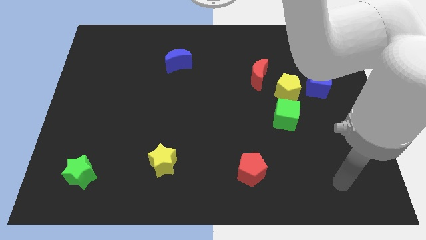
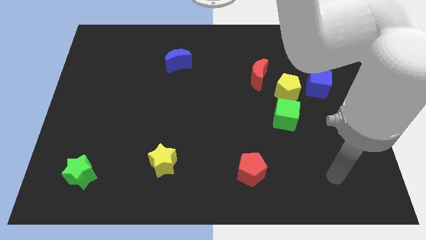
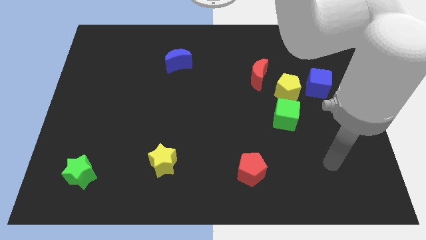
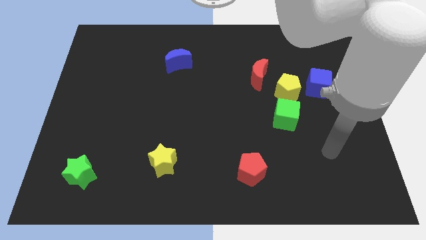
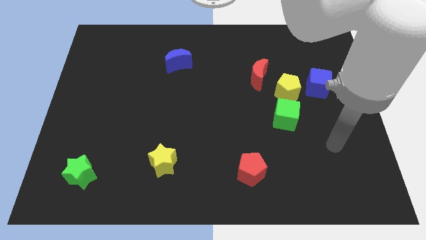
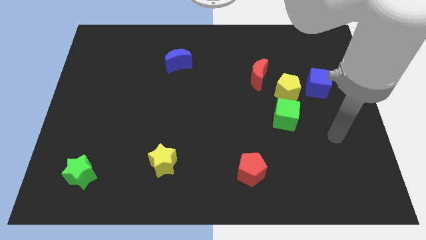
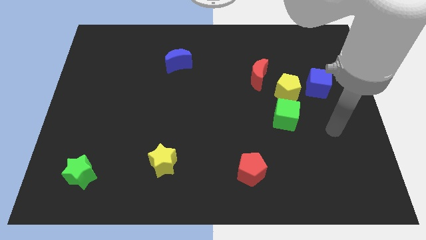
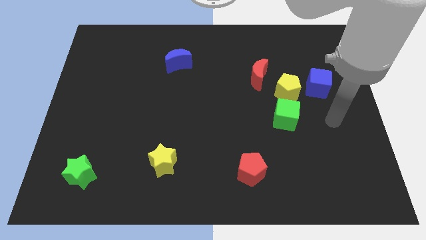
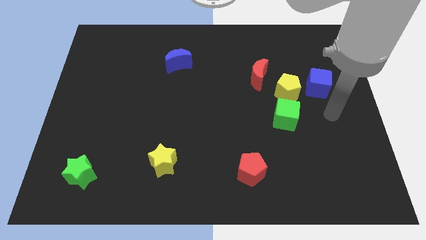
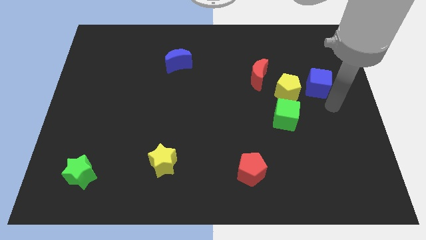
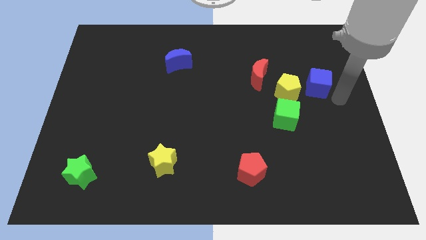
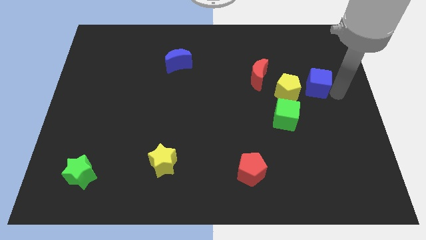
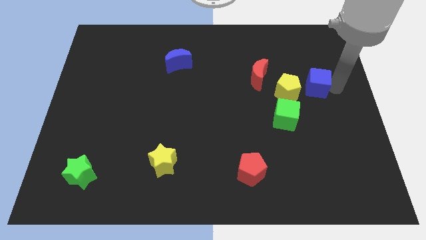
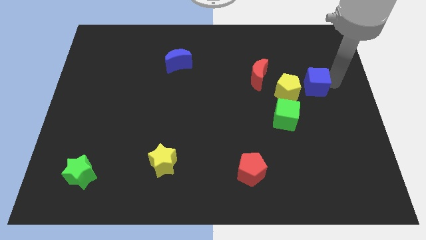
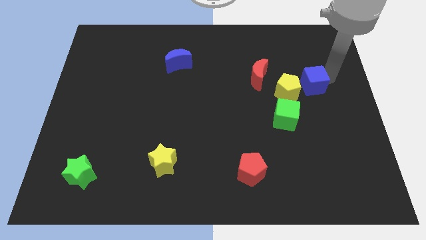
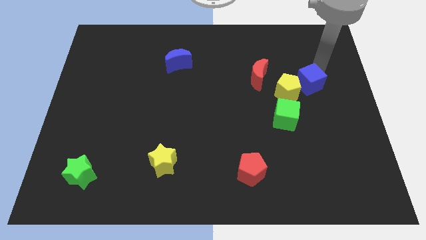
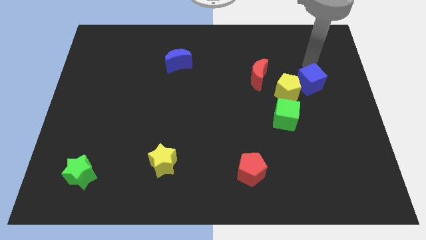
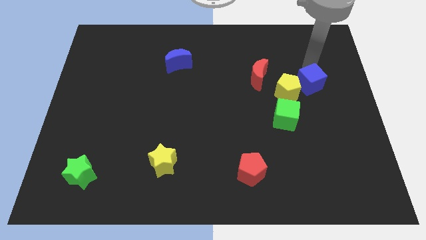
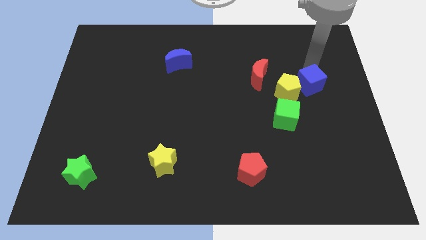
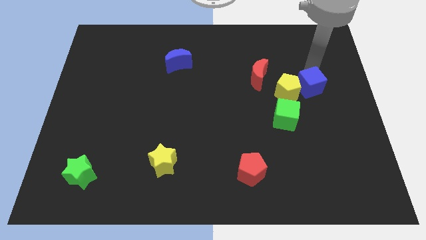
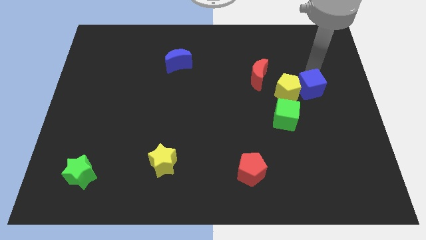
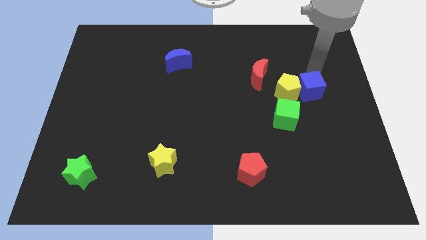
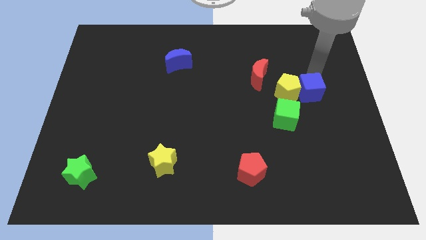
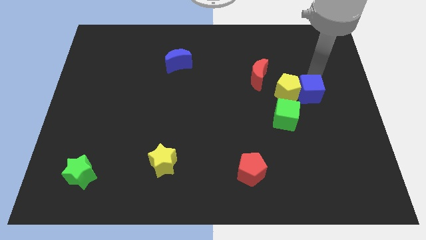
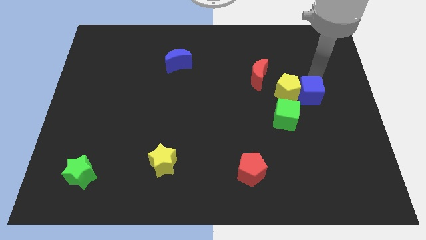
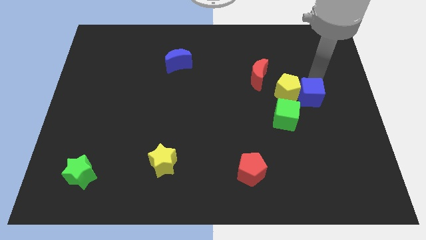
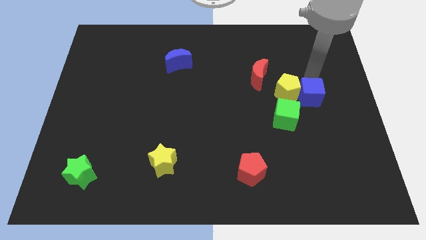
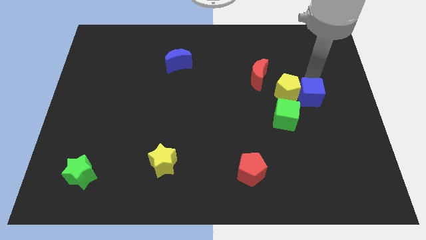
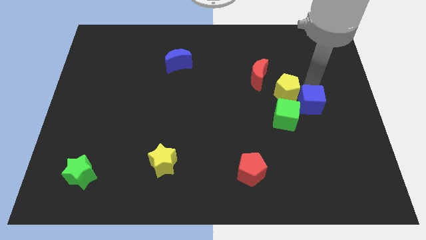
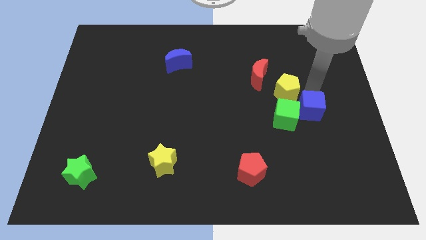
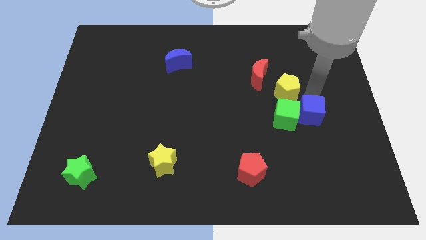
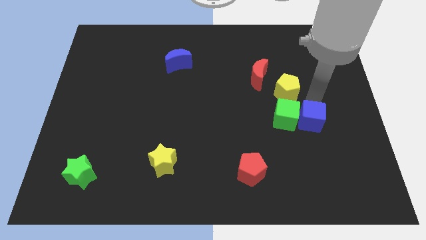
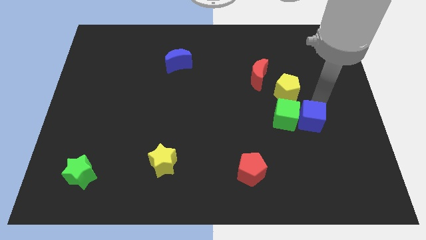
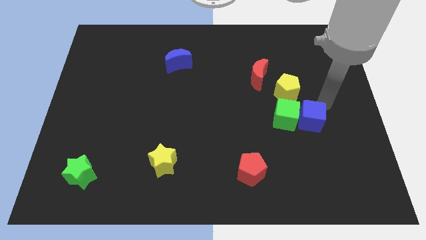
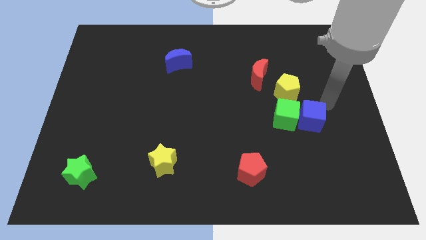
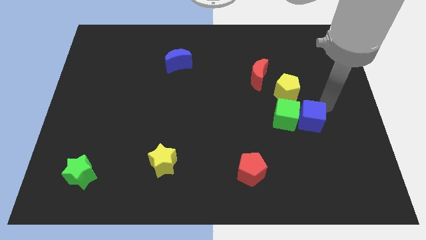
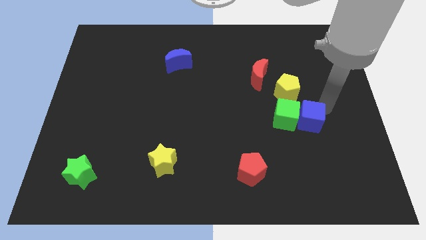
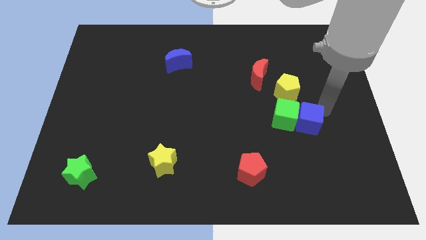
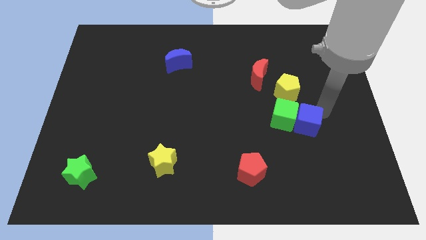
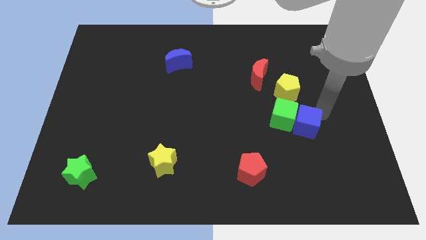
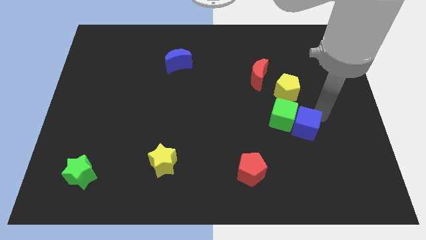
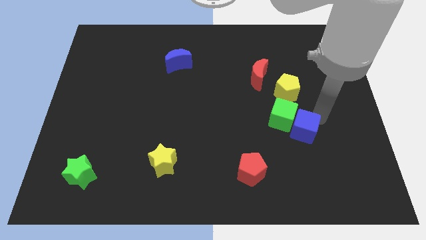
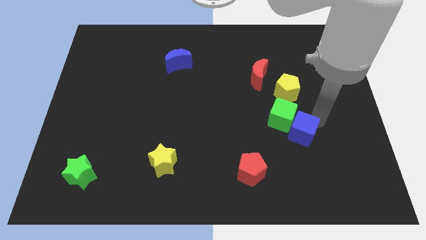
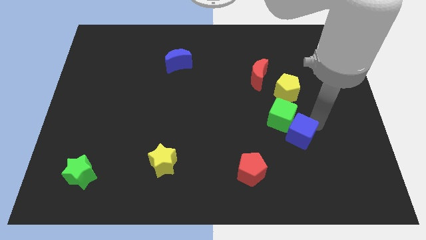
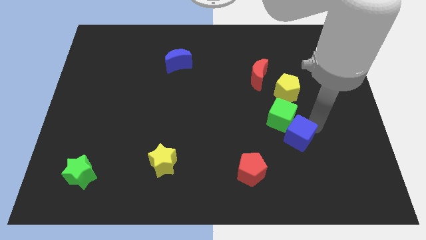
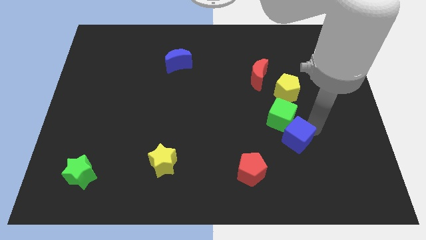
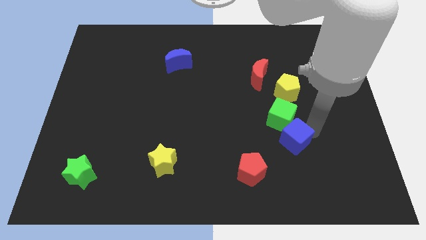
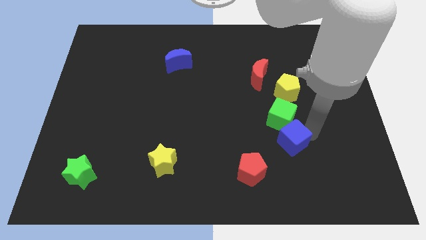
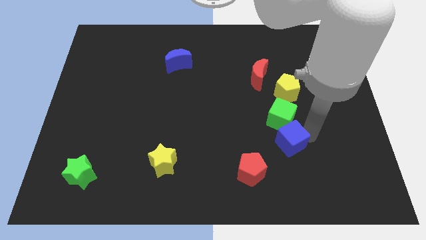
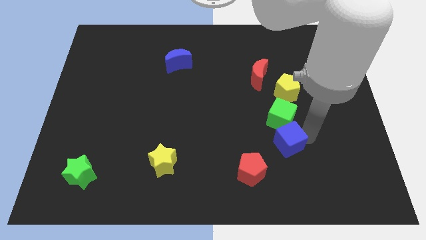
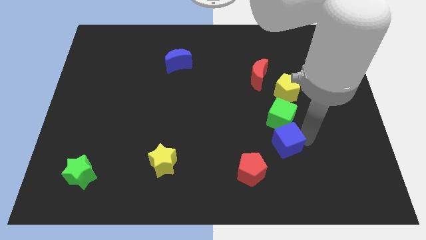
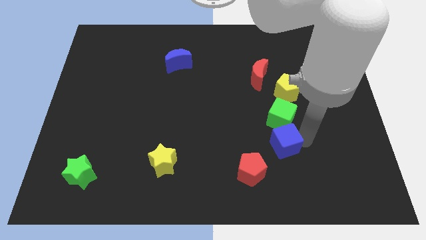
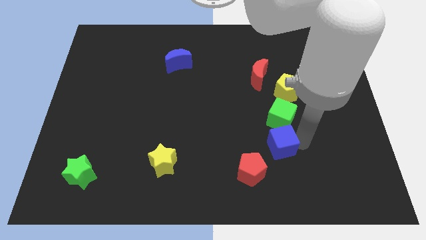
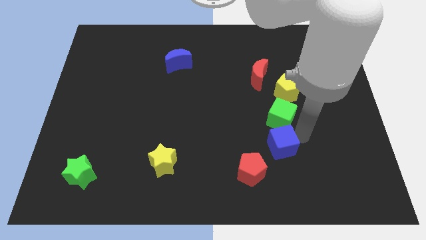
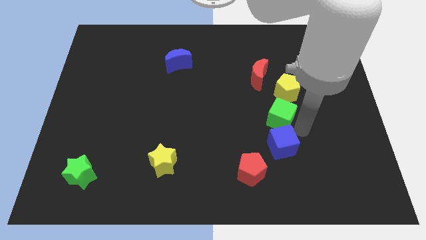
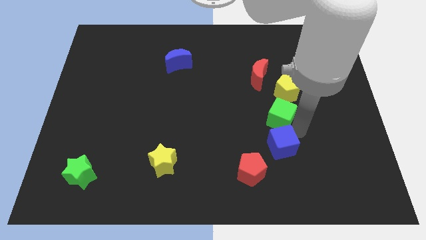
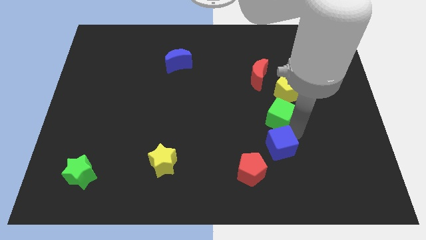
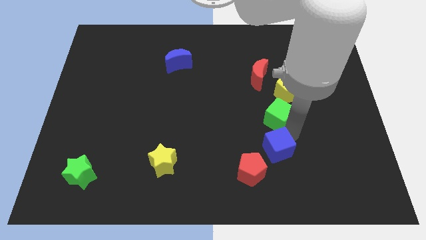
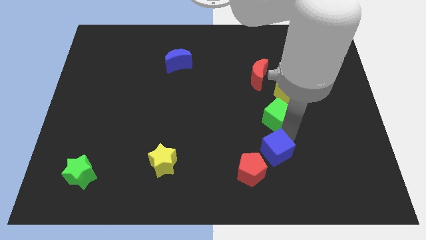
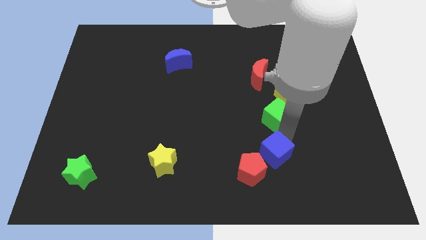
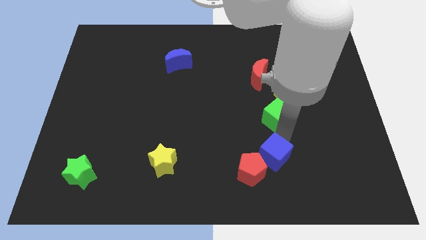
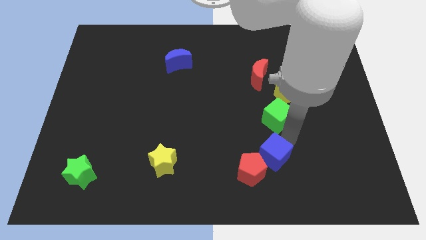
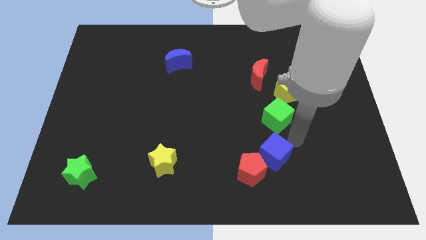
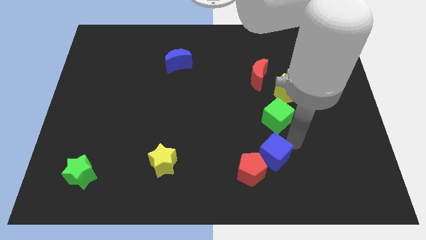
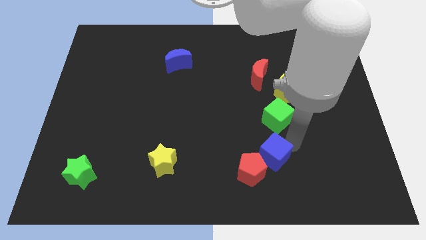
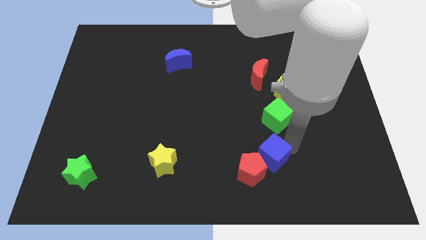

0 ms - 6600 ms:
push the blue cube towards the red pentagon

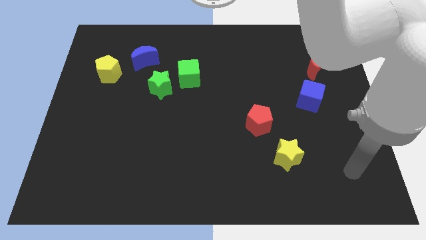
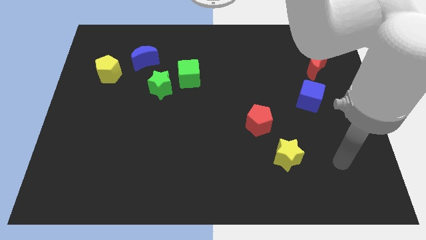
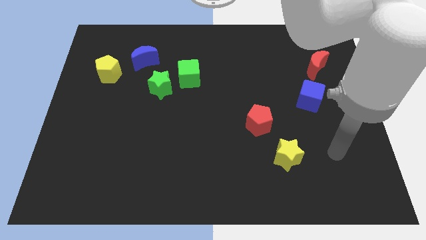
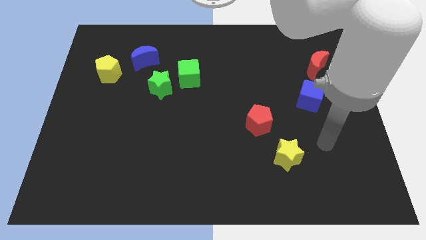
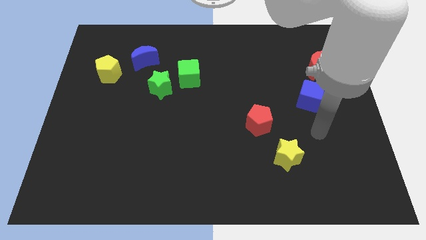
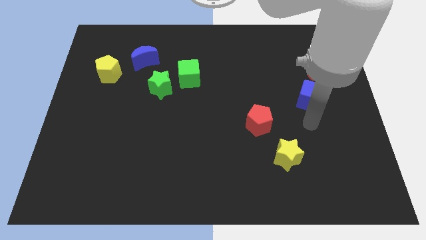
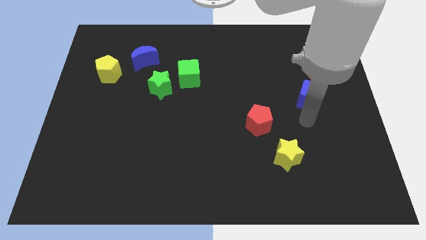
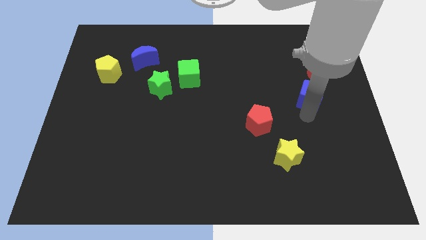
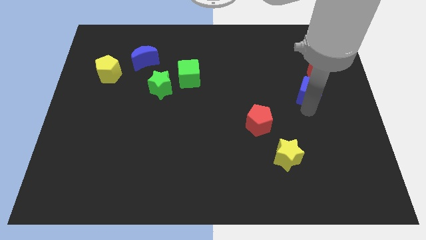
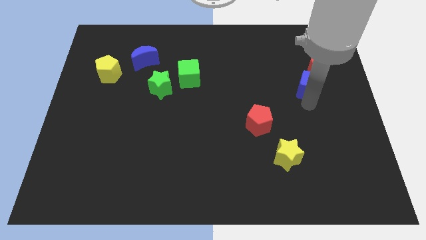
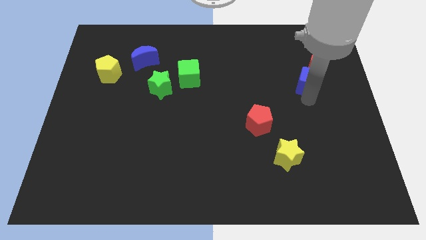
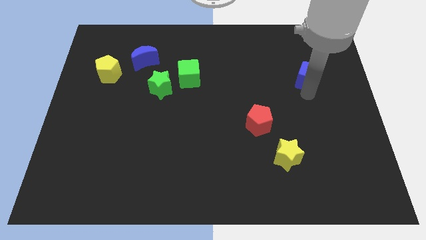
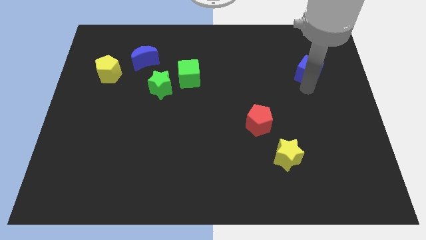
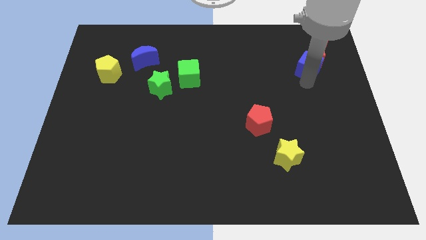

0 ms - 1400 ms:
slide the blue cube close to the red moon
